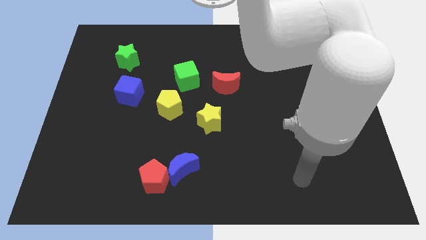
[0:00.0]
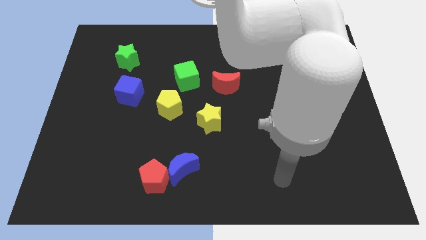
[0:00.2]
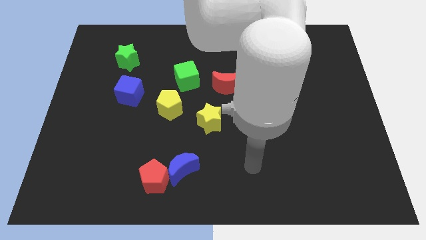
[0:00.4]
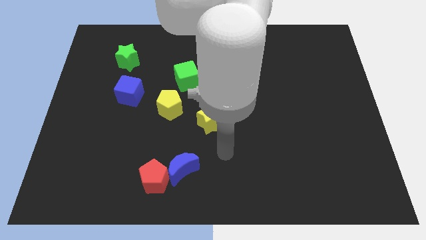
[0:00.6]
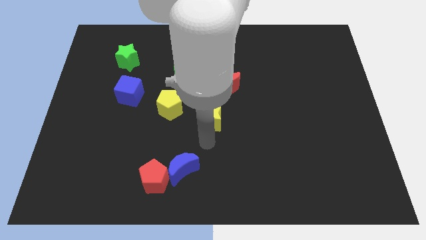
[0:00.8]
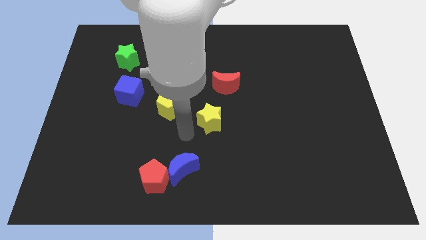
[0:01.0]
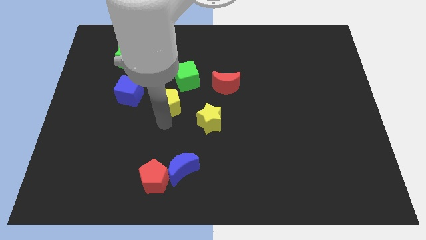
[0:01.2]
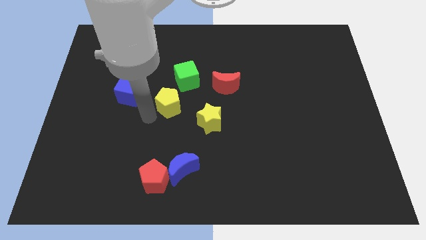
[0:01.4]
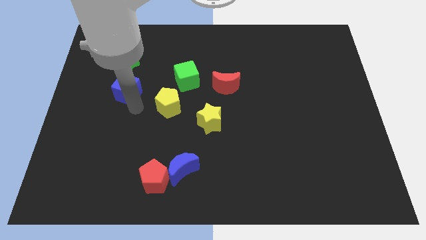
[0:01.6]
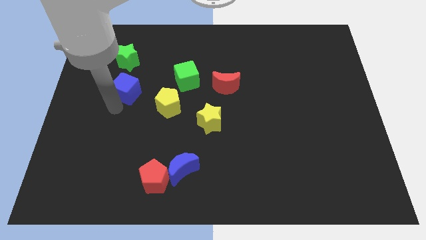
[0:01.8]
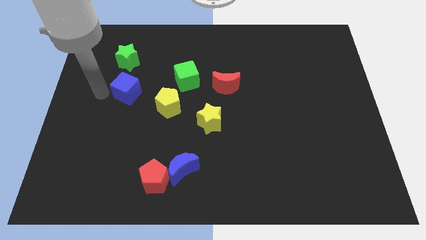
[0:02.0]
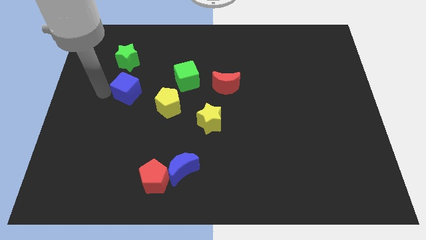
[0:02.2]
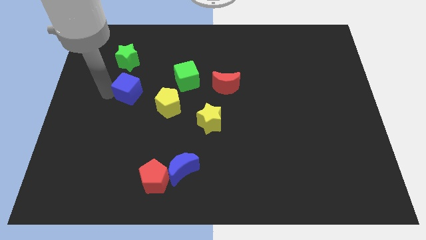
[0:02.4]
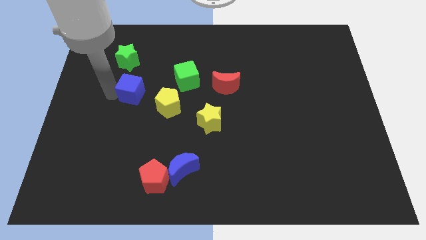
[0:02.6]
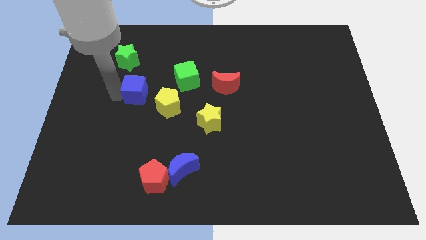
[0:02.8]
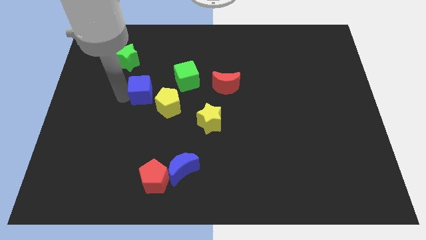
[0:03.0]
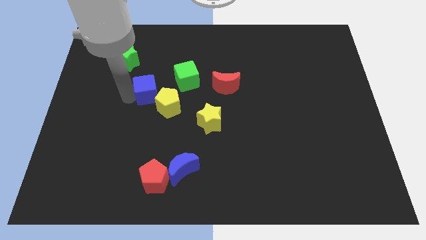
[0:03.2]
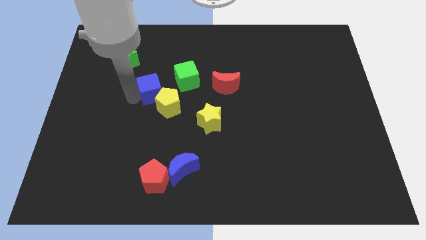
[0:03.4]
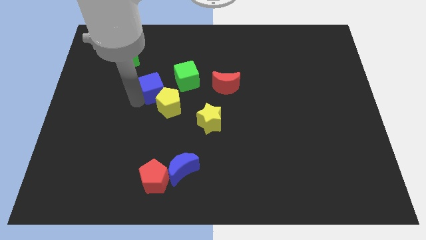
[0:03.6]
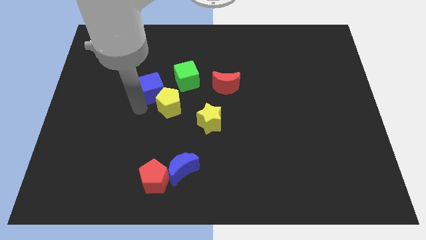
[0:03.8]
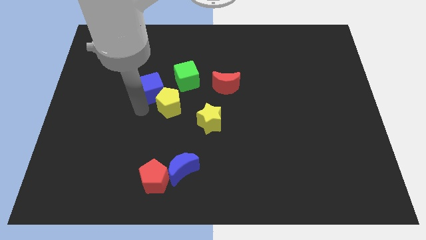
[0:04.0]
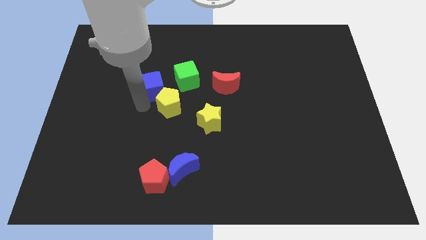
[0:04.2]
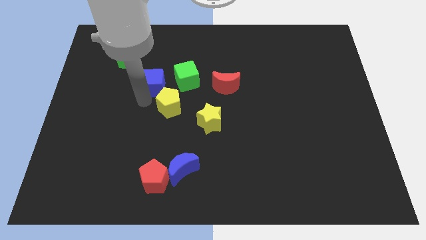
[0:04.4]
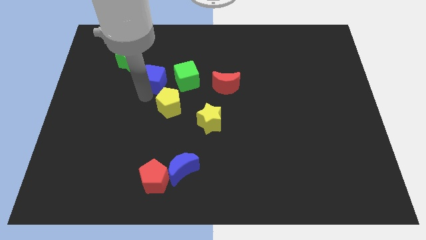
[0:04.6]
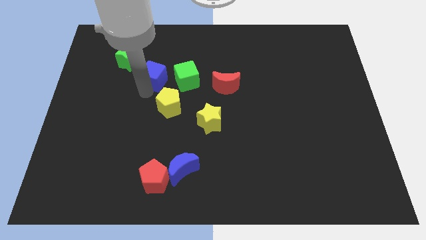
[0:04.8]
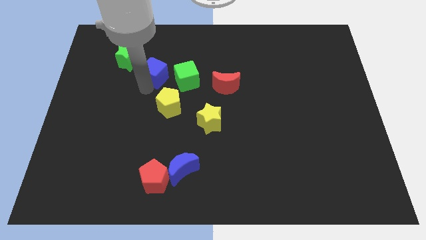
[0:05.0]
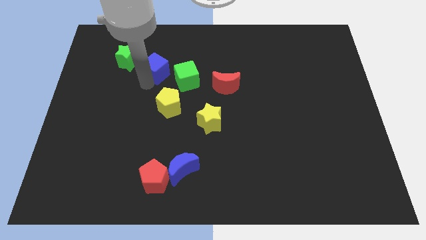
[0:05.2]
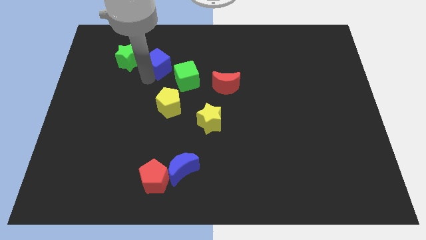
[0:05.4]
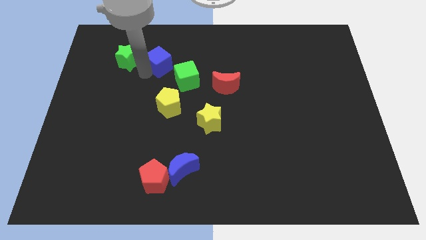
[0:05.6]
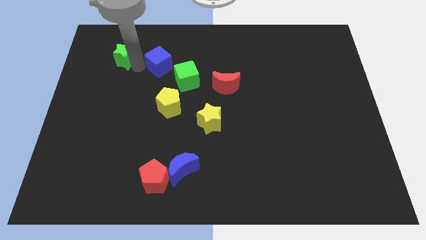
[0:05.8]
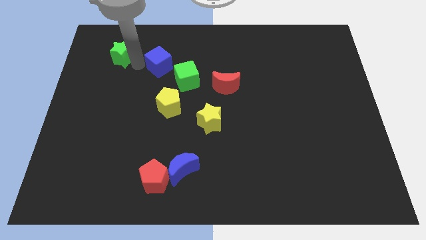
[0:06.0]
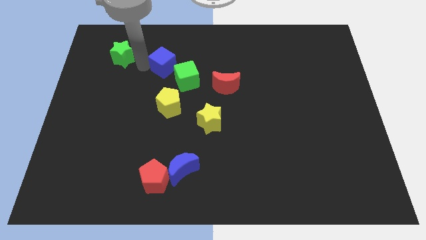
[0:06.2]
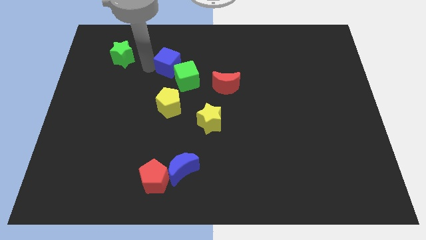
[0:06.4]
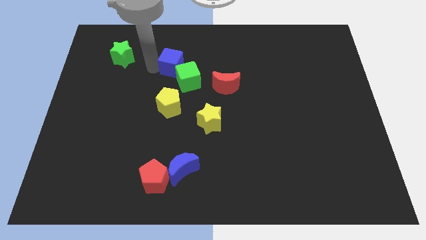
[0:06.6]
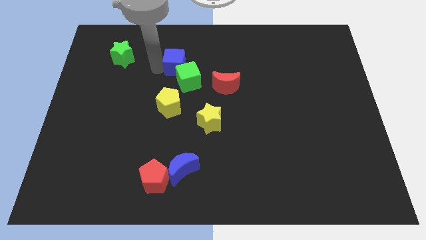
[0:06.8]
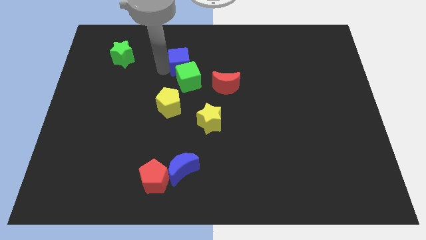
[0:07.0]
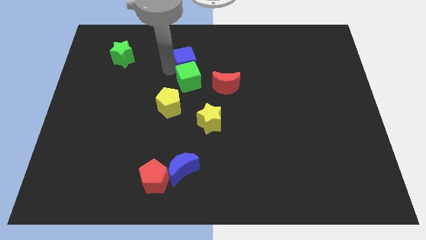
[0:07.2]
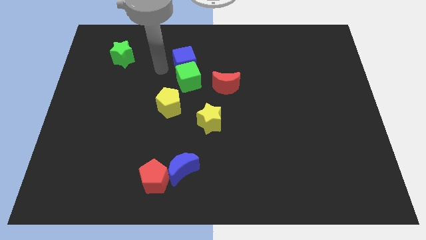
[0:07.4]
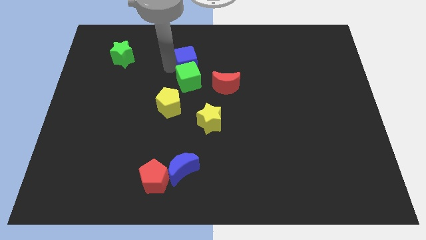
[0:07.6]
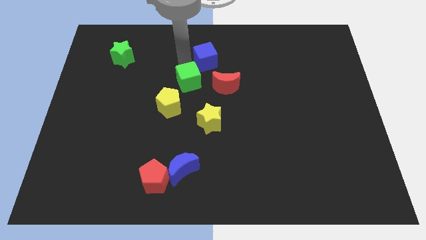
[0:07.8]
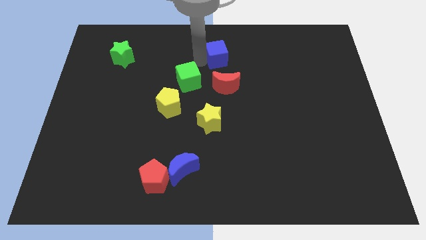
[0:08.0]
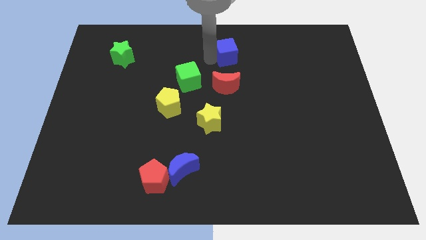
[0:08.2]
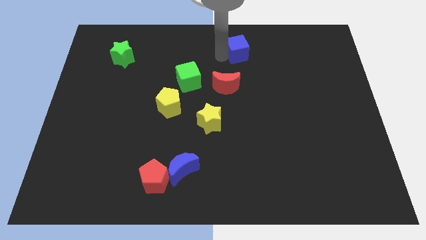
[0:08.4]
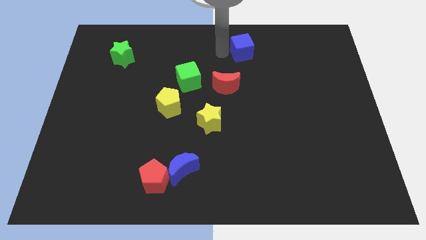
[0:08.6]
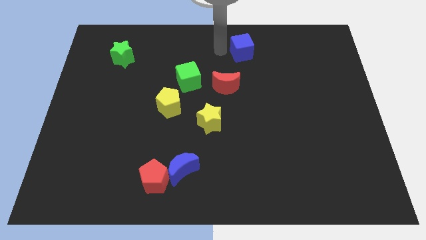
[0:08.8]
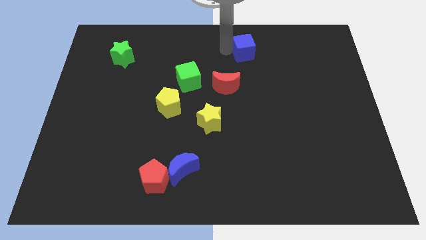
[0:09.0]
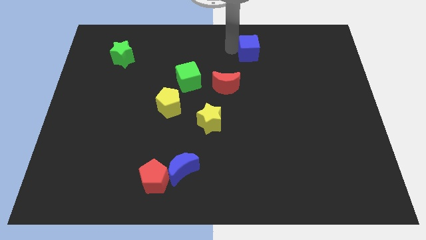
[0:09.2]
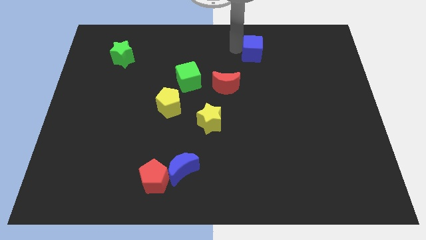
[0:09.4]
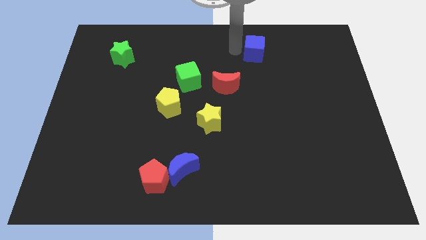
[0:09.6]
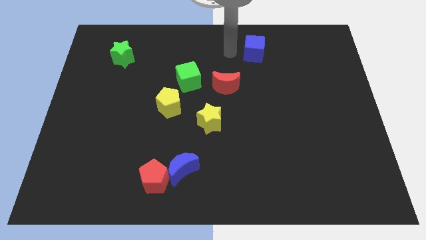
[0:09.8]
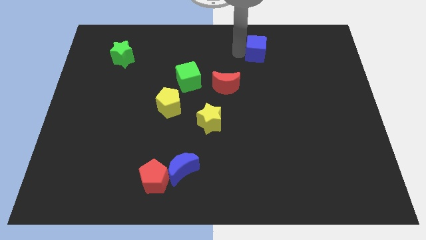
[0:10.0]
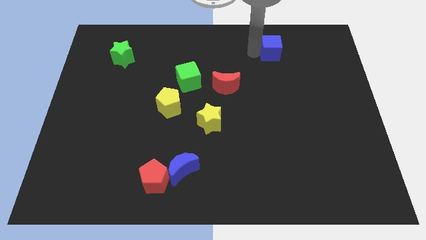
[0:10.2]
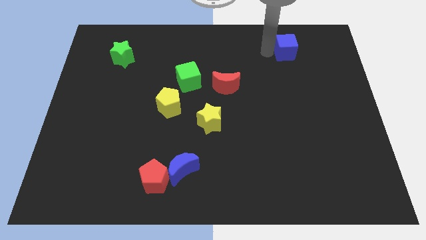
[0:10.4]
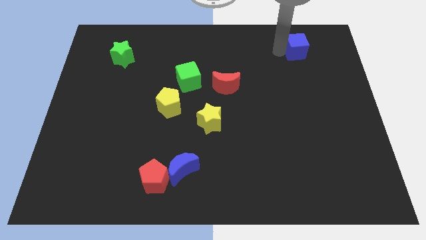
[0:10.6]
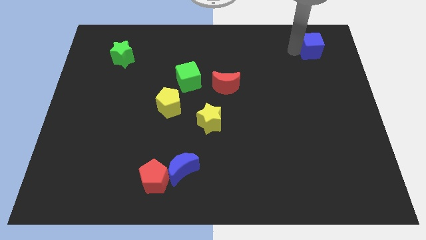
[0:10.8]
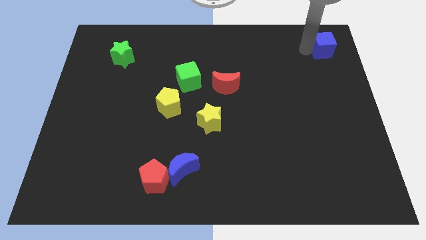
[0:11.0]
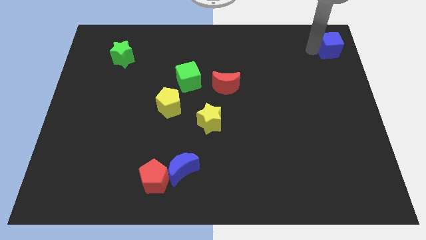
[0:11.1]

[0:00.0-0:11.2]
push the blue cube to the top right corner
